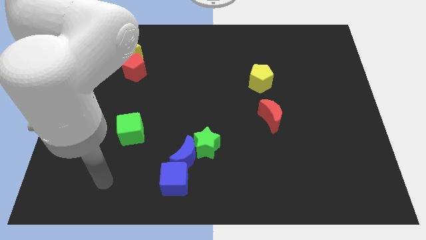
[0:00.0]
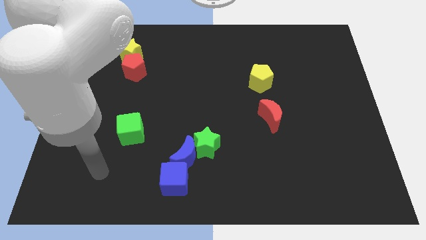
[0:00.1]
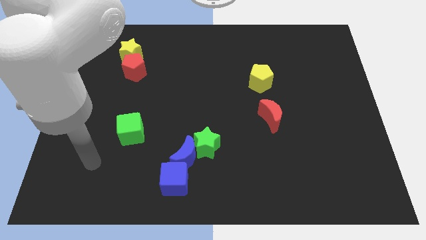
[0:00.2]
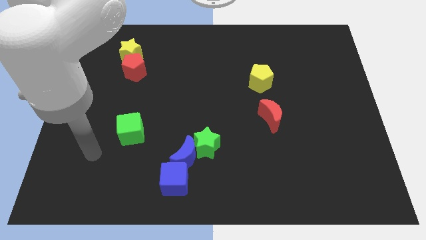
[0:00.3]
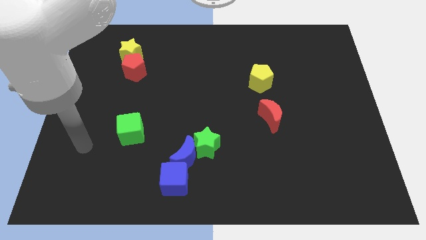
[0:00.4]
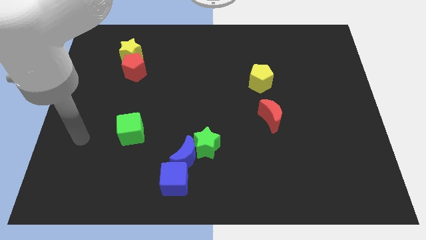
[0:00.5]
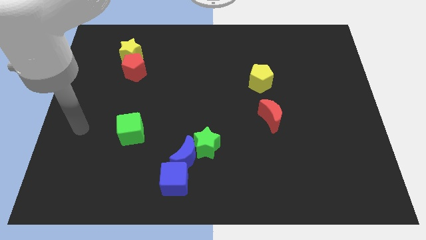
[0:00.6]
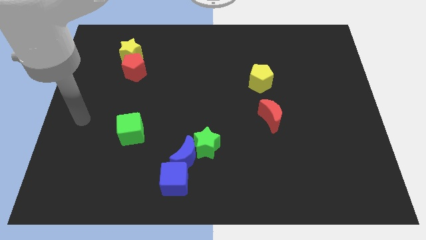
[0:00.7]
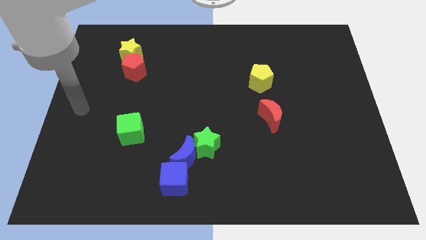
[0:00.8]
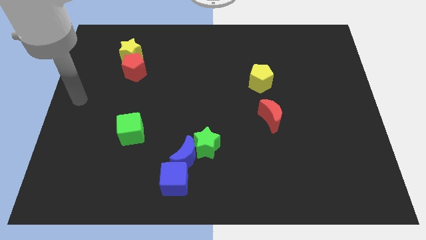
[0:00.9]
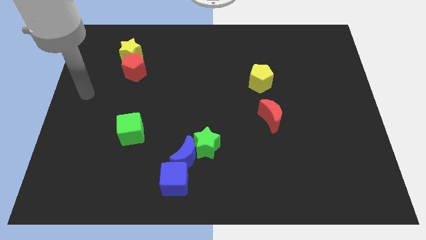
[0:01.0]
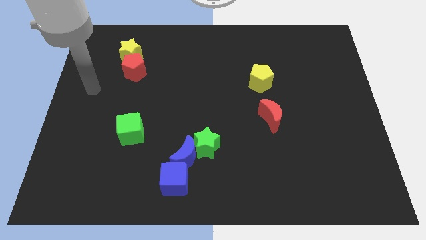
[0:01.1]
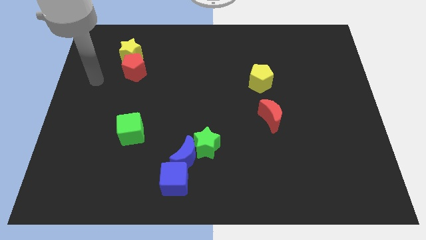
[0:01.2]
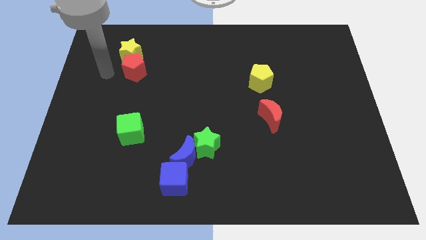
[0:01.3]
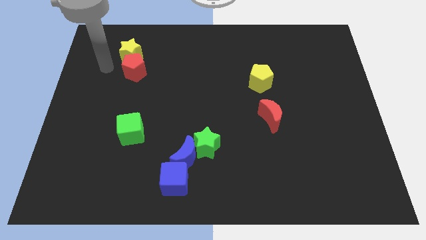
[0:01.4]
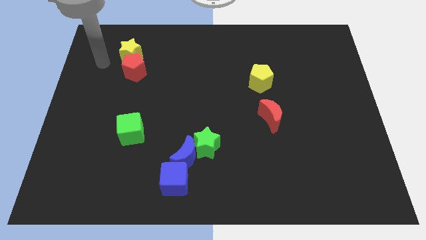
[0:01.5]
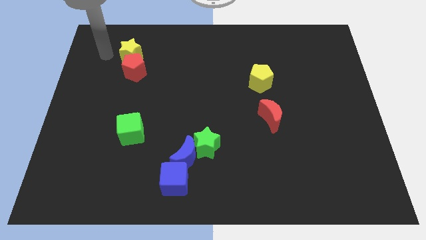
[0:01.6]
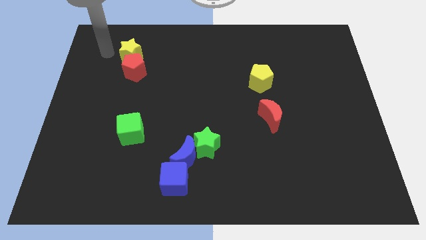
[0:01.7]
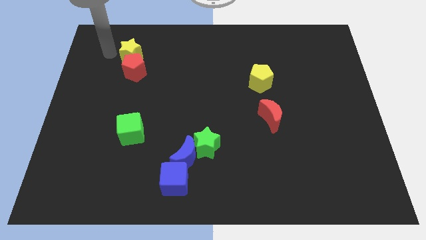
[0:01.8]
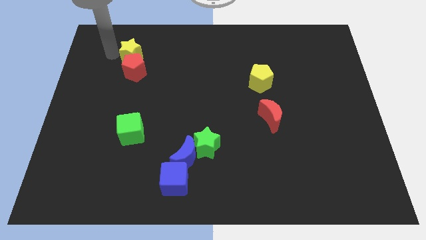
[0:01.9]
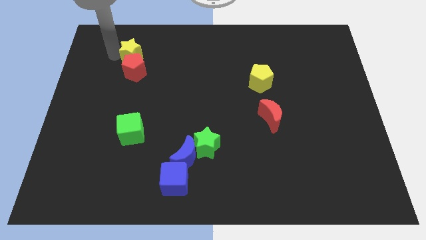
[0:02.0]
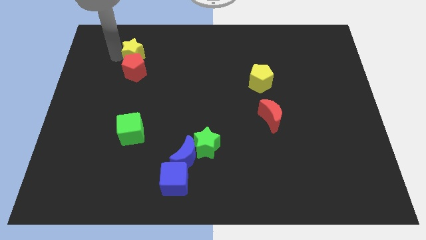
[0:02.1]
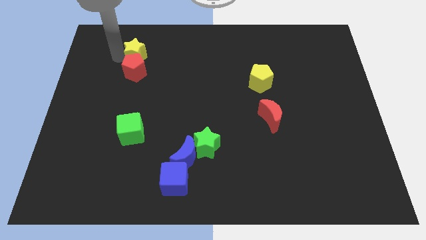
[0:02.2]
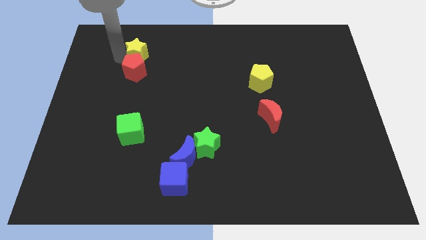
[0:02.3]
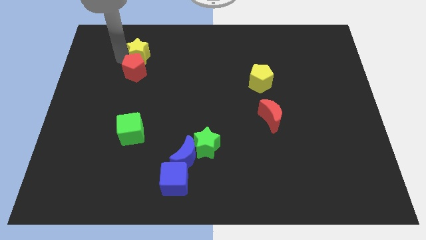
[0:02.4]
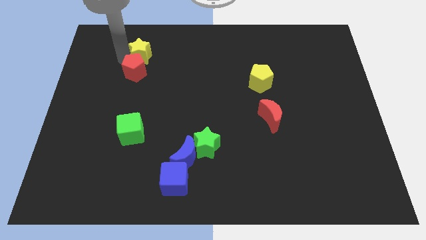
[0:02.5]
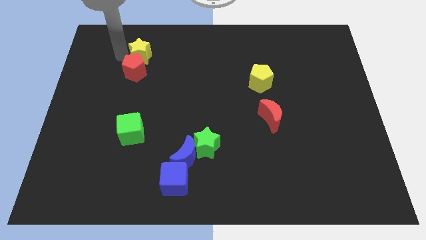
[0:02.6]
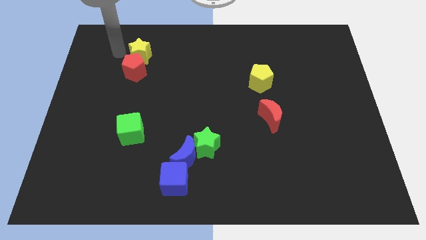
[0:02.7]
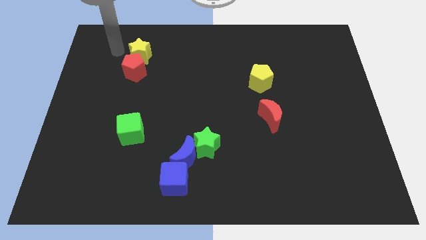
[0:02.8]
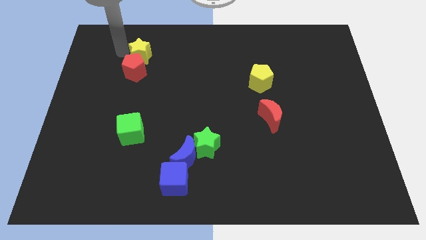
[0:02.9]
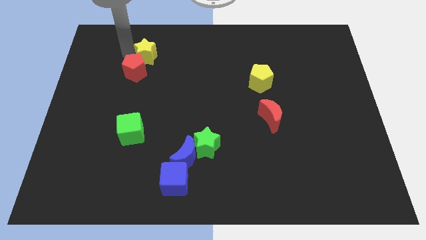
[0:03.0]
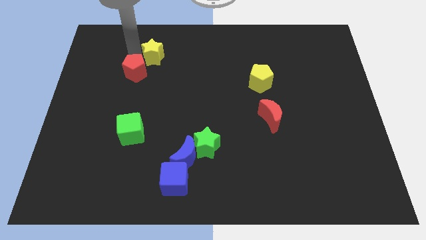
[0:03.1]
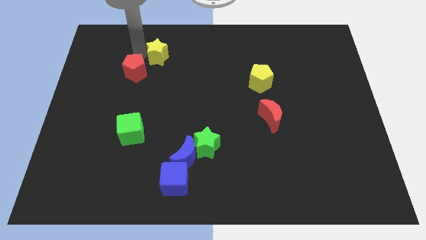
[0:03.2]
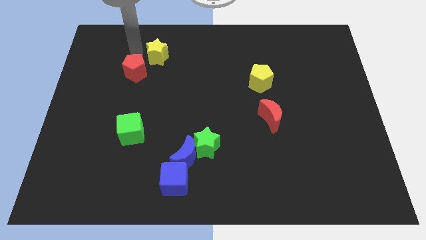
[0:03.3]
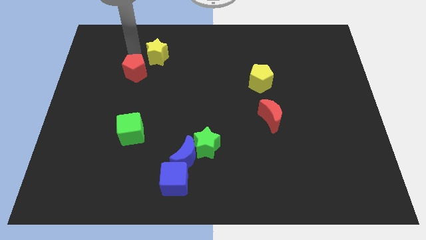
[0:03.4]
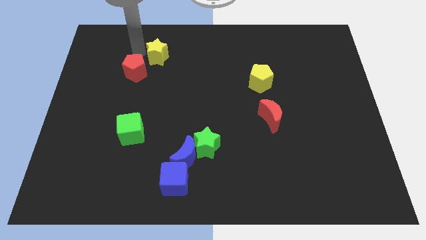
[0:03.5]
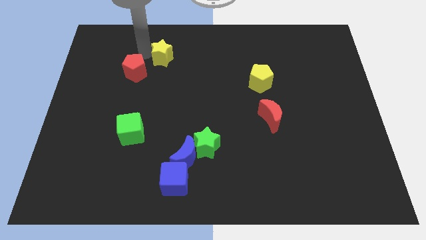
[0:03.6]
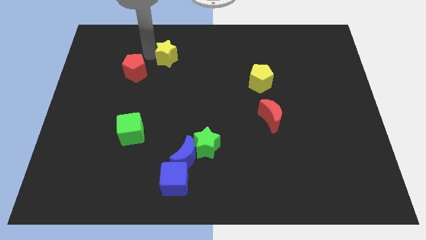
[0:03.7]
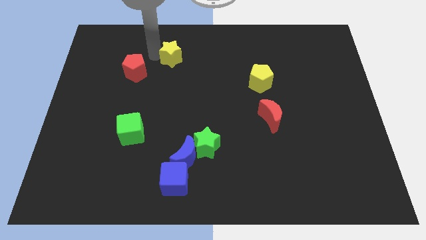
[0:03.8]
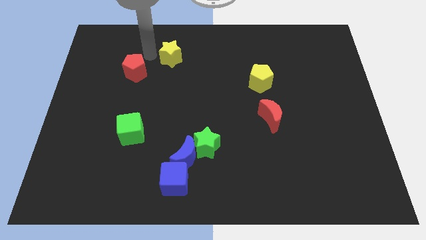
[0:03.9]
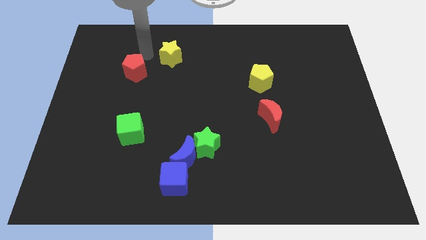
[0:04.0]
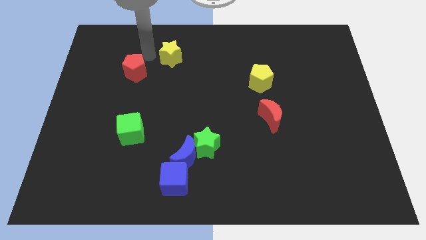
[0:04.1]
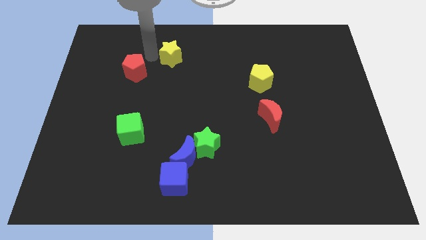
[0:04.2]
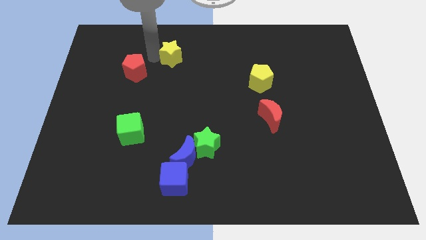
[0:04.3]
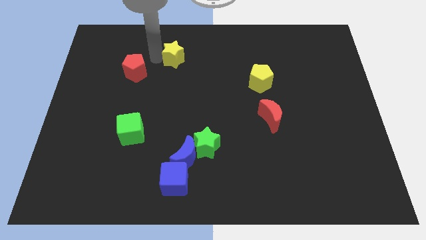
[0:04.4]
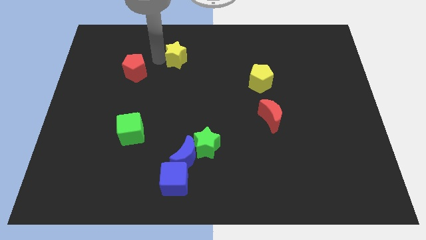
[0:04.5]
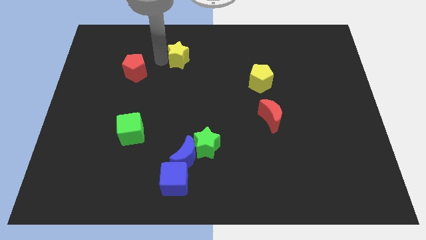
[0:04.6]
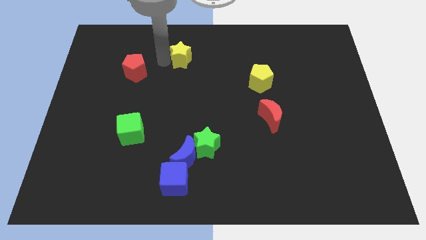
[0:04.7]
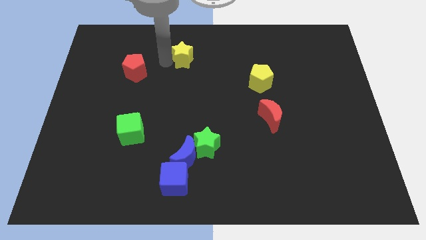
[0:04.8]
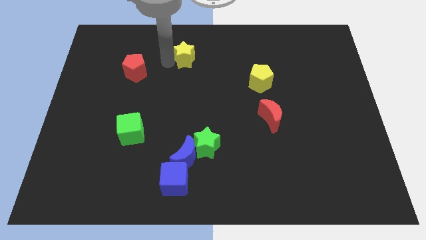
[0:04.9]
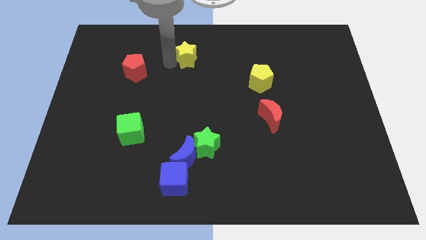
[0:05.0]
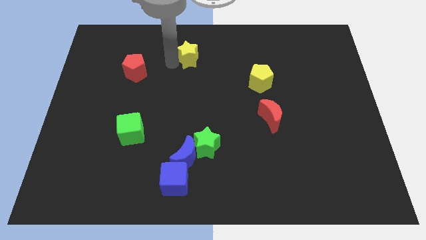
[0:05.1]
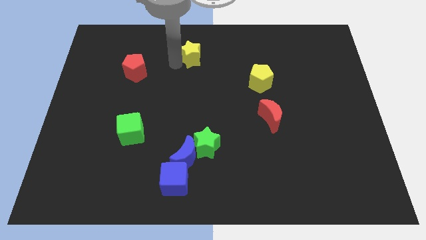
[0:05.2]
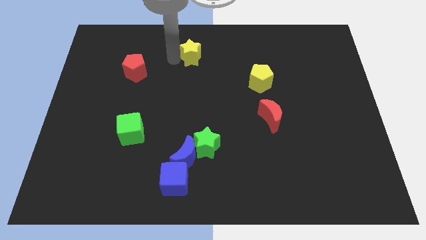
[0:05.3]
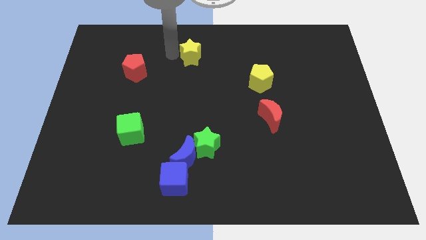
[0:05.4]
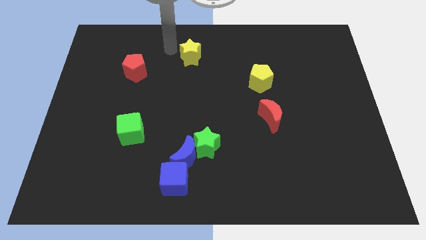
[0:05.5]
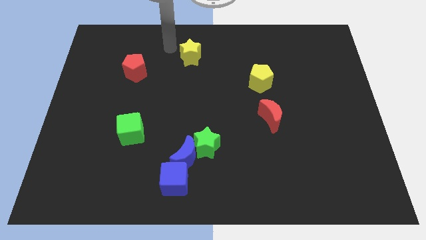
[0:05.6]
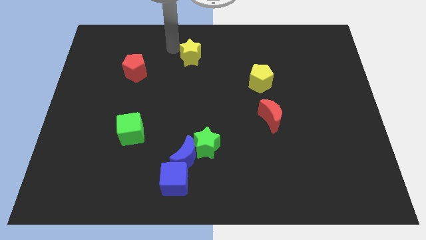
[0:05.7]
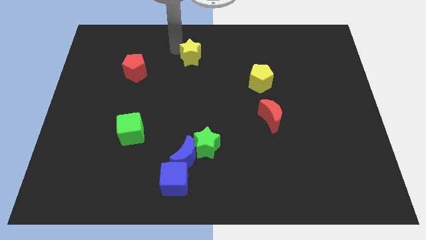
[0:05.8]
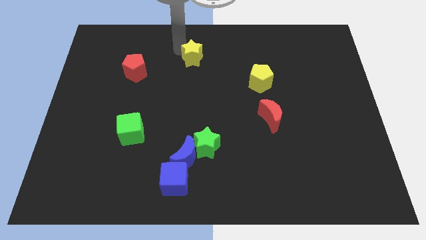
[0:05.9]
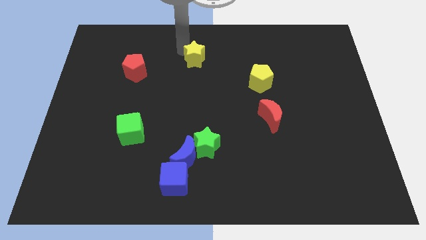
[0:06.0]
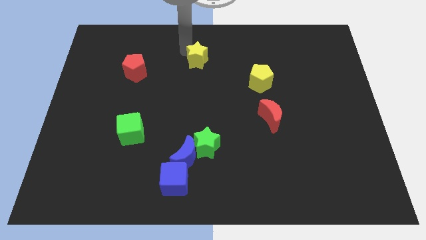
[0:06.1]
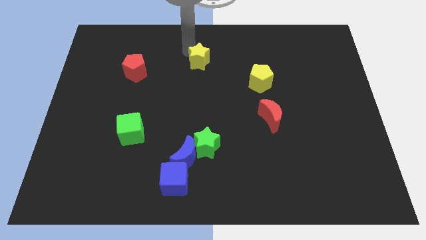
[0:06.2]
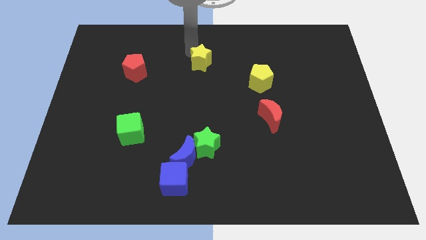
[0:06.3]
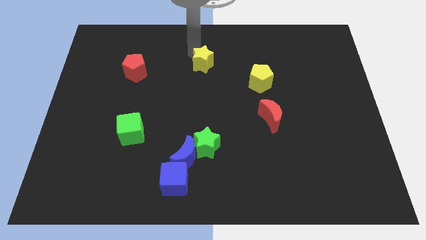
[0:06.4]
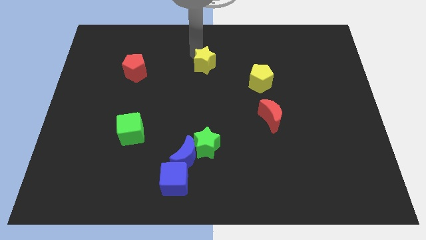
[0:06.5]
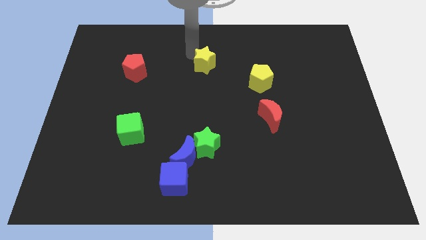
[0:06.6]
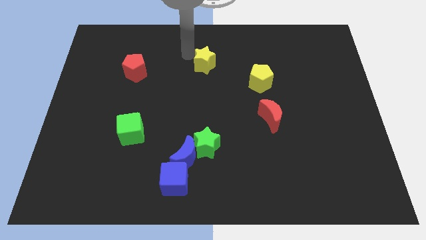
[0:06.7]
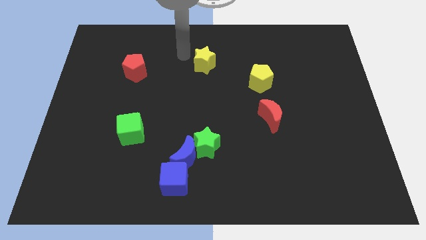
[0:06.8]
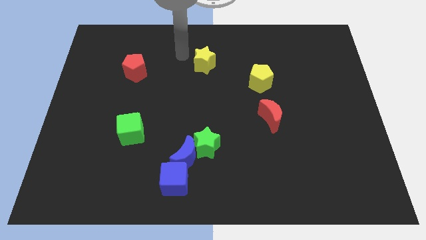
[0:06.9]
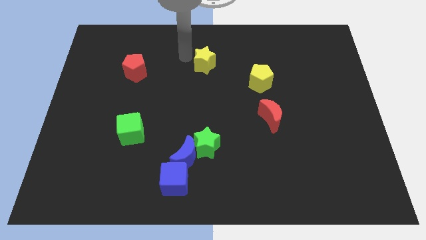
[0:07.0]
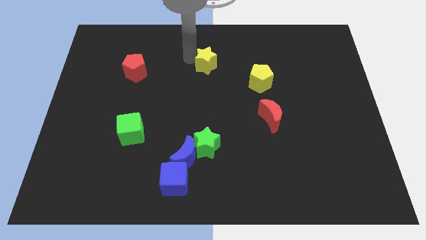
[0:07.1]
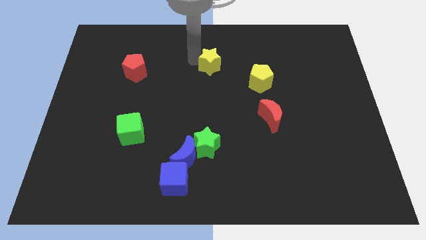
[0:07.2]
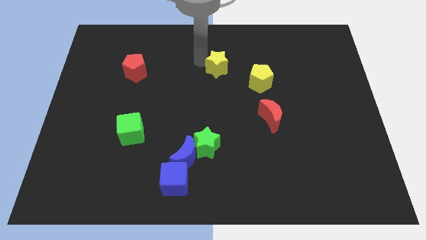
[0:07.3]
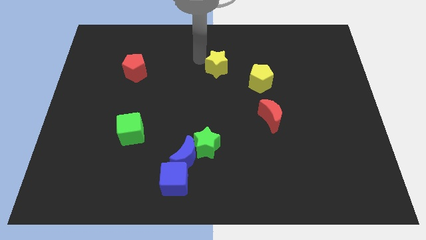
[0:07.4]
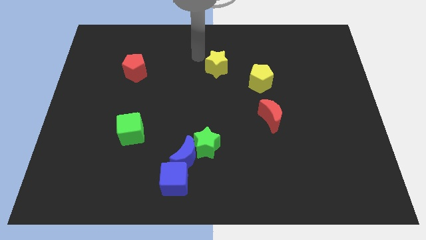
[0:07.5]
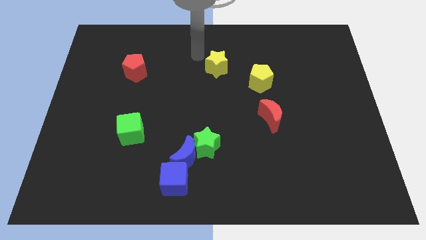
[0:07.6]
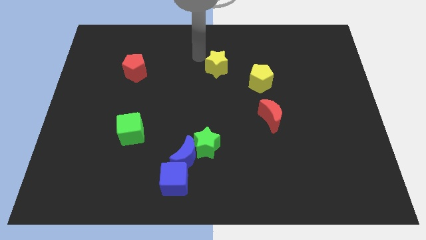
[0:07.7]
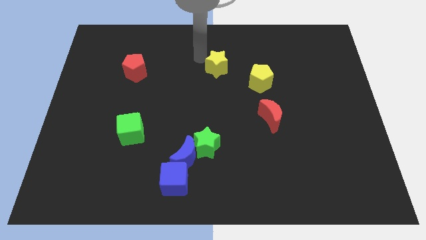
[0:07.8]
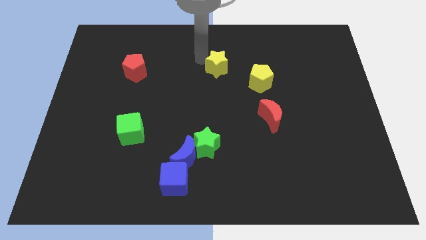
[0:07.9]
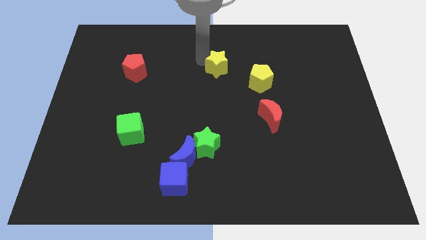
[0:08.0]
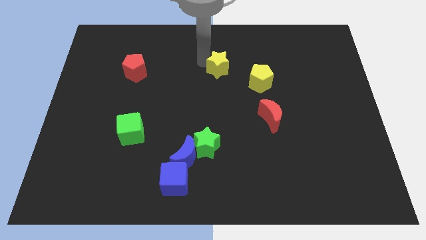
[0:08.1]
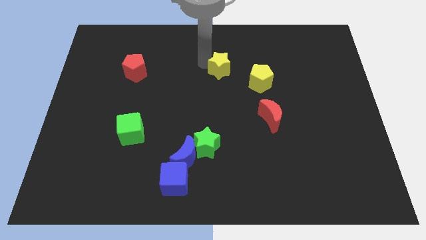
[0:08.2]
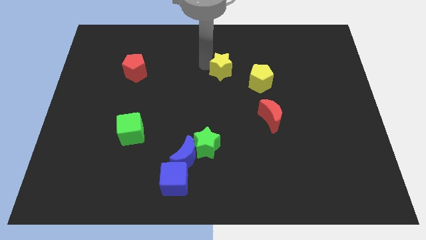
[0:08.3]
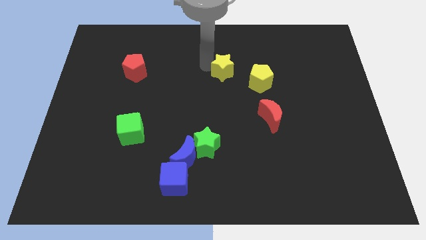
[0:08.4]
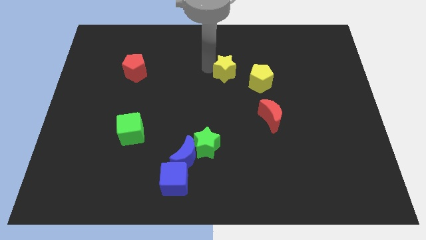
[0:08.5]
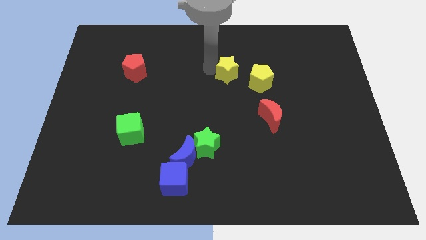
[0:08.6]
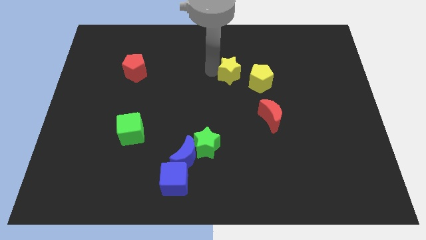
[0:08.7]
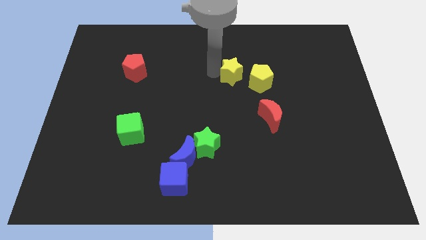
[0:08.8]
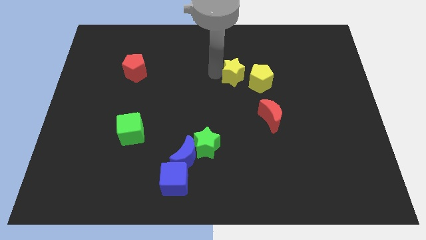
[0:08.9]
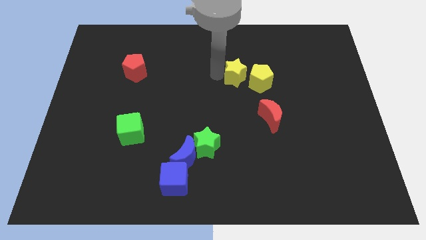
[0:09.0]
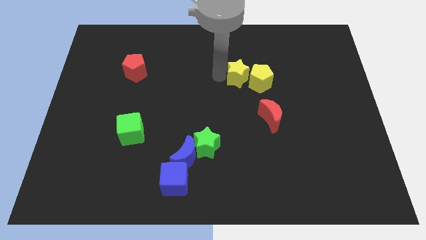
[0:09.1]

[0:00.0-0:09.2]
put the yellow star towards the yellow pentagon
